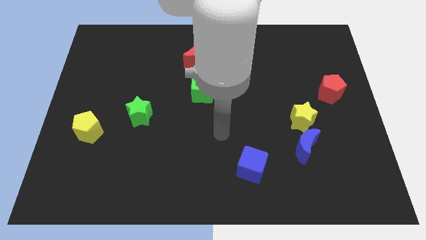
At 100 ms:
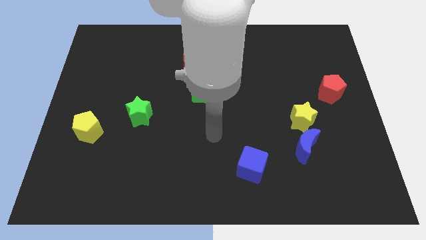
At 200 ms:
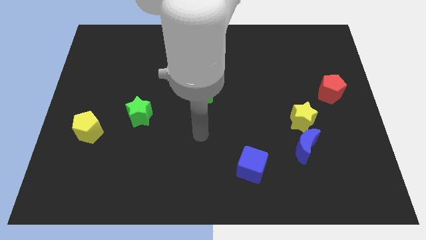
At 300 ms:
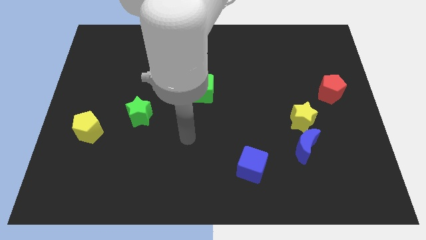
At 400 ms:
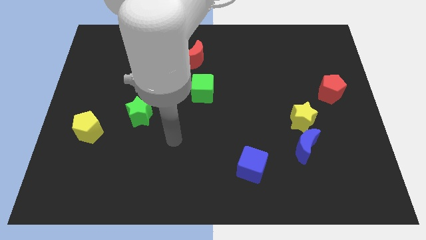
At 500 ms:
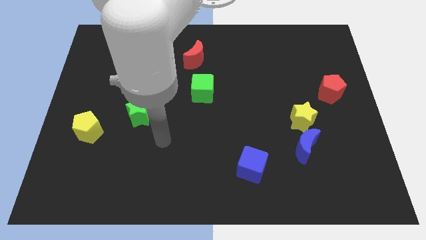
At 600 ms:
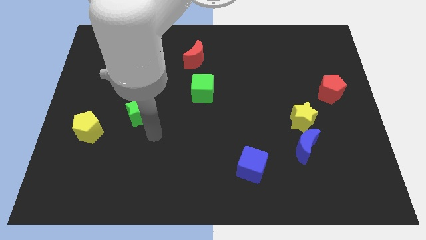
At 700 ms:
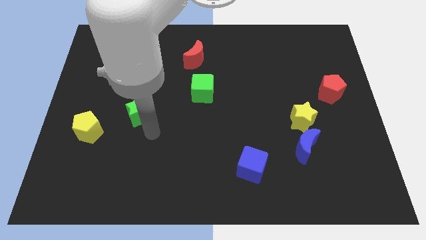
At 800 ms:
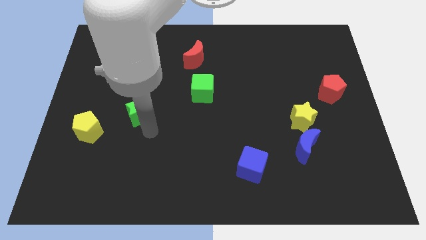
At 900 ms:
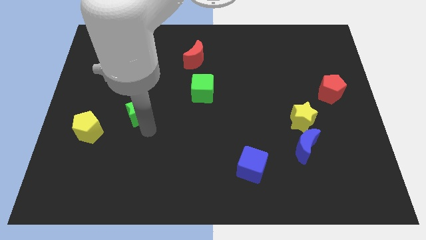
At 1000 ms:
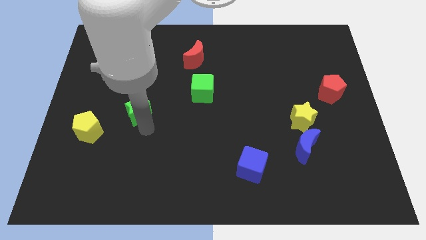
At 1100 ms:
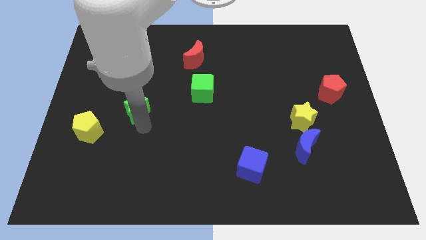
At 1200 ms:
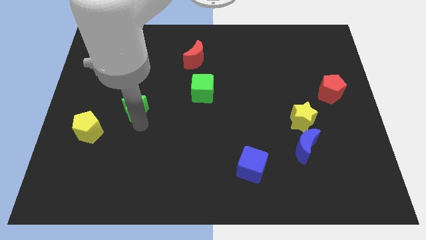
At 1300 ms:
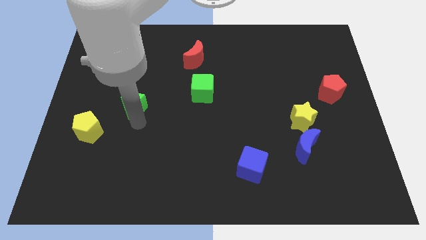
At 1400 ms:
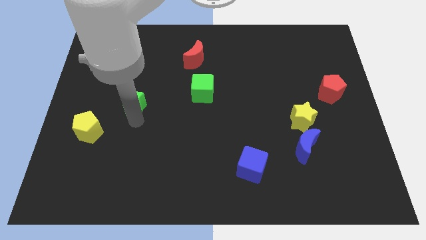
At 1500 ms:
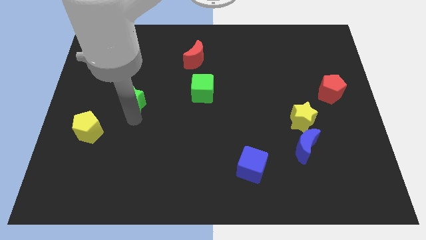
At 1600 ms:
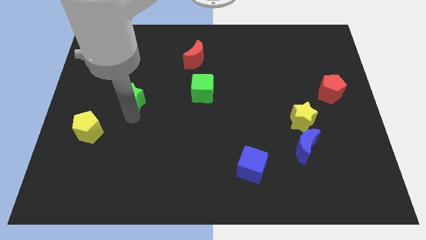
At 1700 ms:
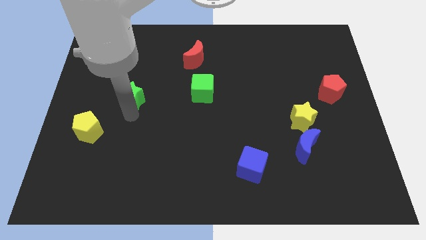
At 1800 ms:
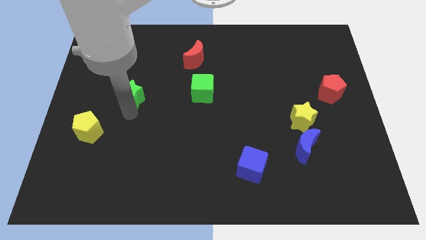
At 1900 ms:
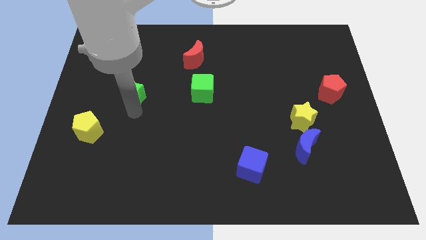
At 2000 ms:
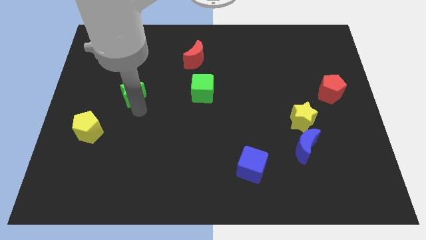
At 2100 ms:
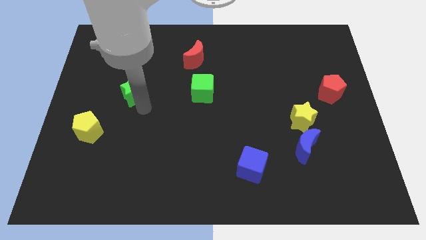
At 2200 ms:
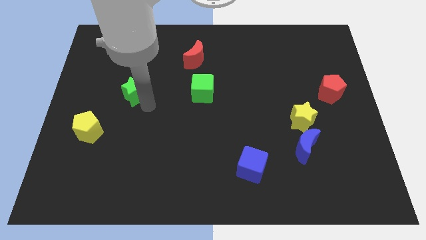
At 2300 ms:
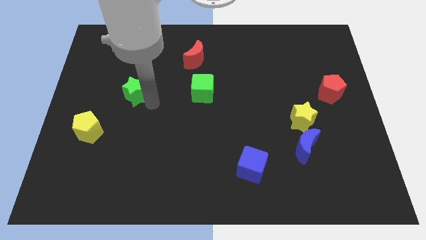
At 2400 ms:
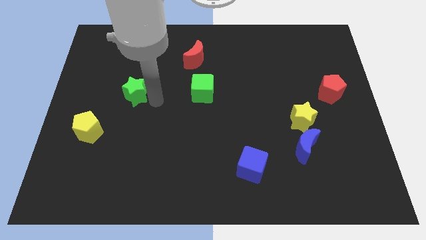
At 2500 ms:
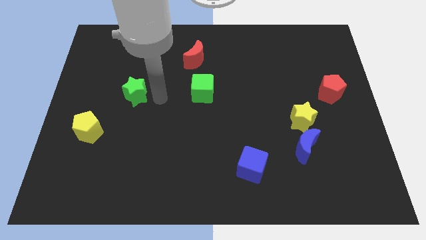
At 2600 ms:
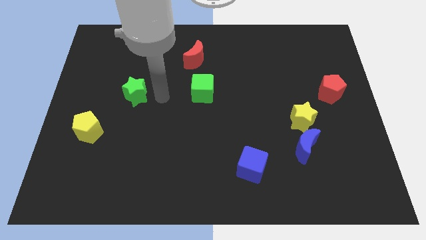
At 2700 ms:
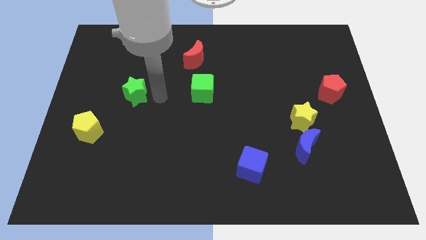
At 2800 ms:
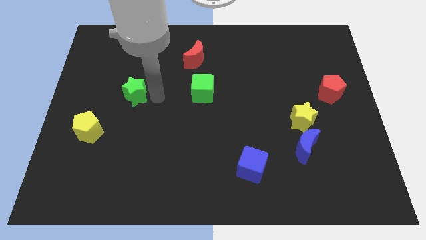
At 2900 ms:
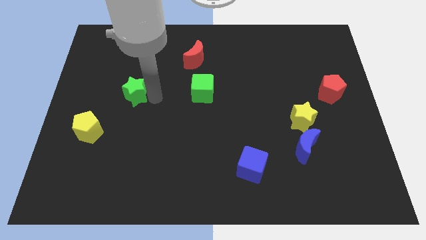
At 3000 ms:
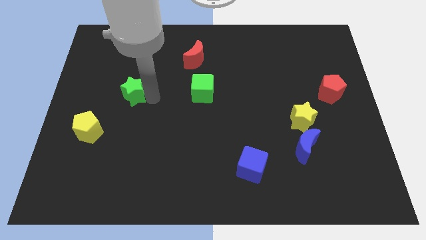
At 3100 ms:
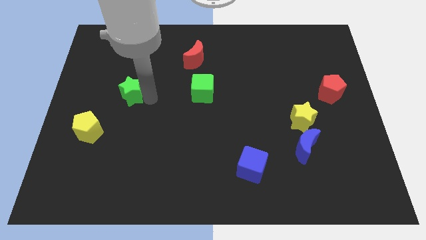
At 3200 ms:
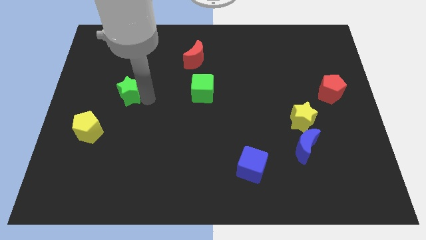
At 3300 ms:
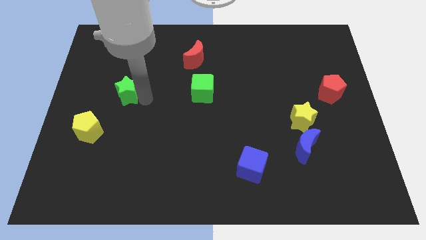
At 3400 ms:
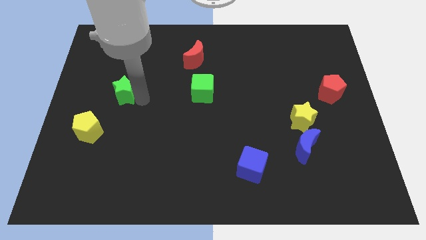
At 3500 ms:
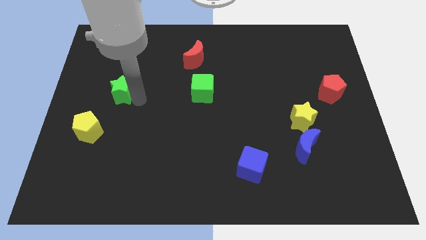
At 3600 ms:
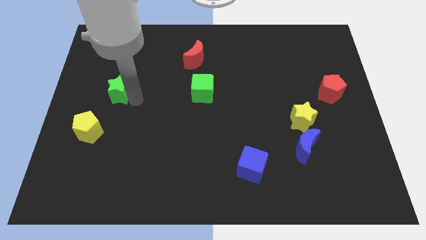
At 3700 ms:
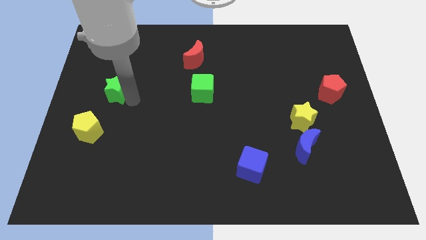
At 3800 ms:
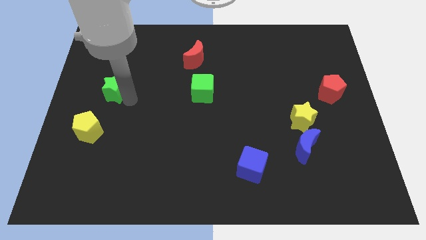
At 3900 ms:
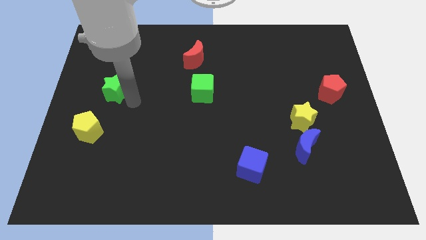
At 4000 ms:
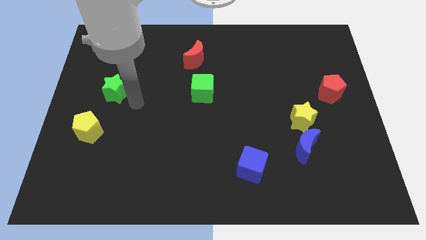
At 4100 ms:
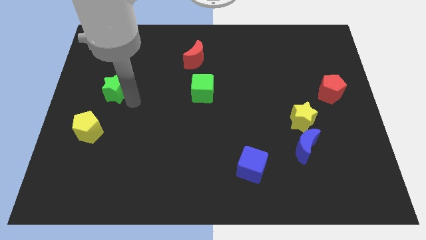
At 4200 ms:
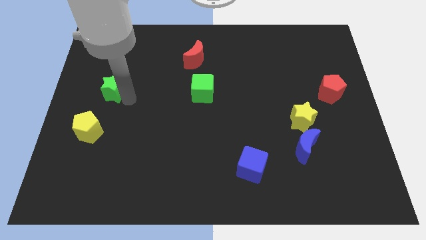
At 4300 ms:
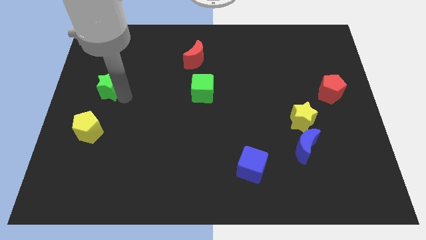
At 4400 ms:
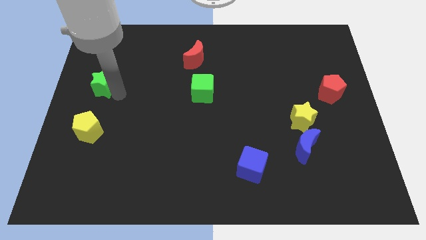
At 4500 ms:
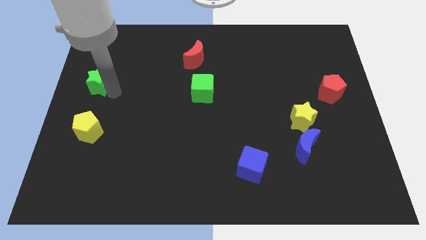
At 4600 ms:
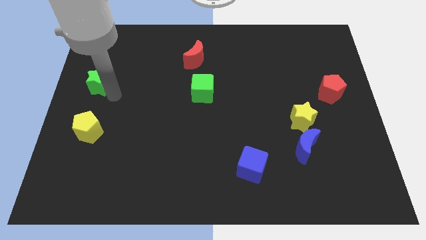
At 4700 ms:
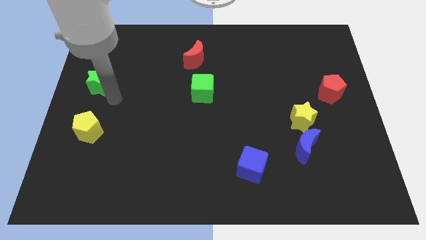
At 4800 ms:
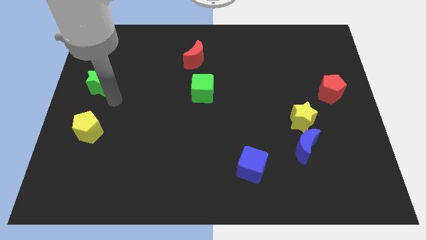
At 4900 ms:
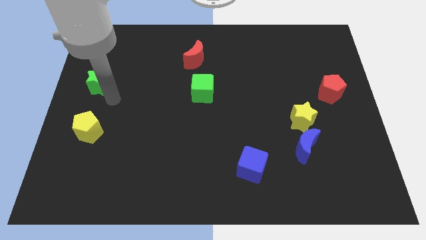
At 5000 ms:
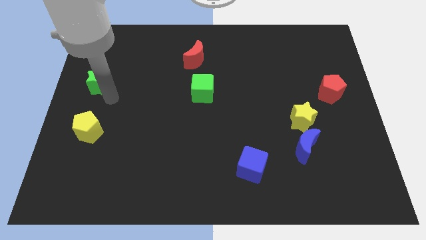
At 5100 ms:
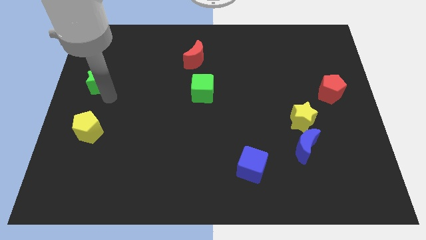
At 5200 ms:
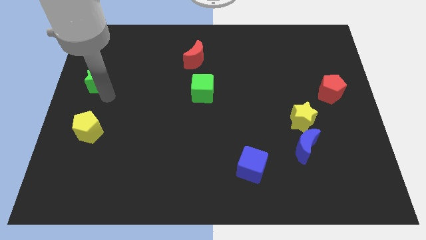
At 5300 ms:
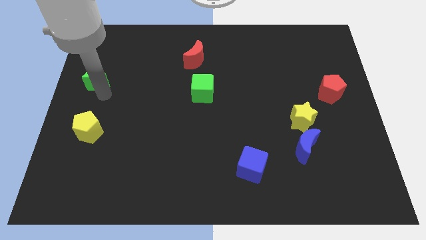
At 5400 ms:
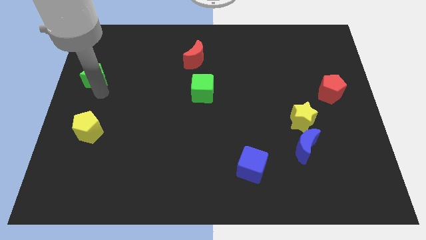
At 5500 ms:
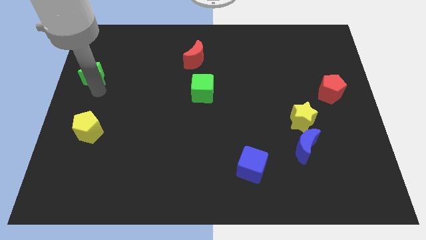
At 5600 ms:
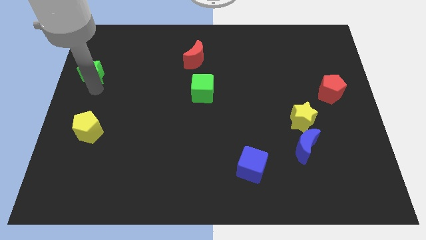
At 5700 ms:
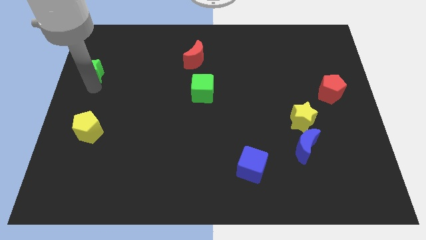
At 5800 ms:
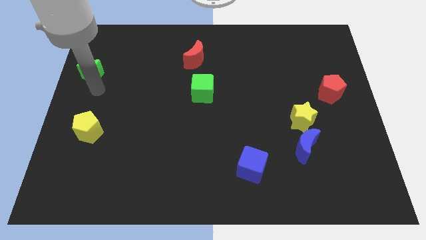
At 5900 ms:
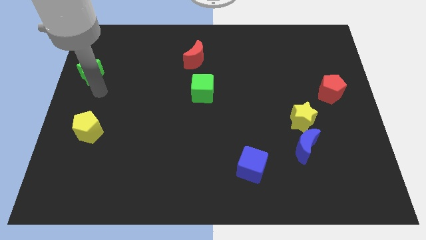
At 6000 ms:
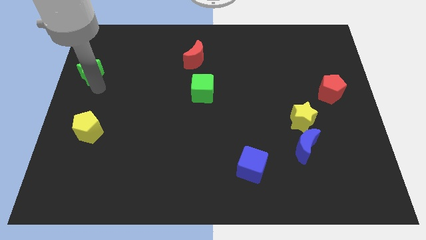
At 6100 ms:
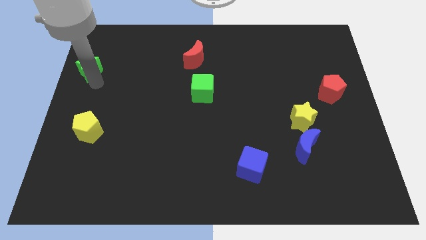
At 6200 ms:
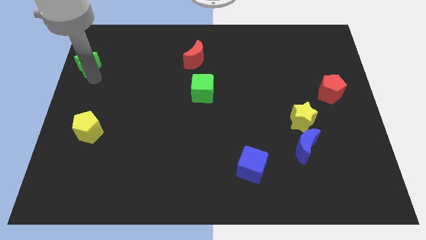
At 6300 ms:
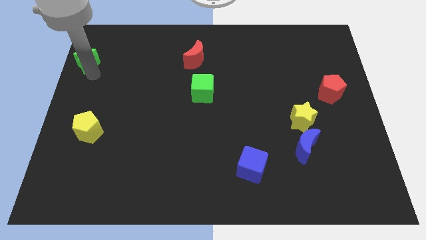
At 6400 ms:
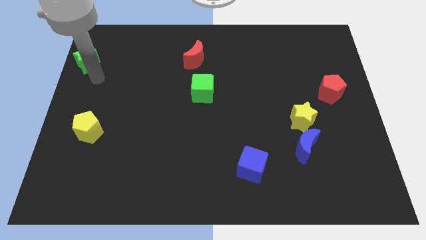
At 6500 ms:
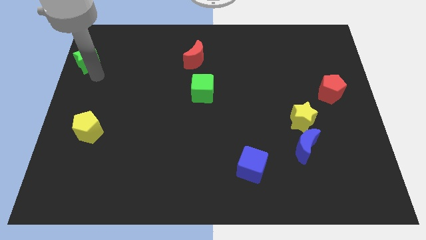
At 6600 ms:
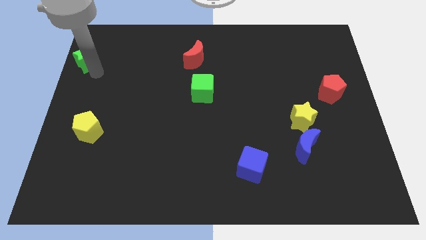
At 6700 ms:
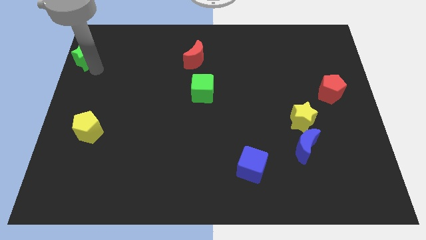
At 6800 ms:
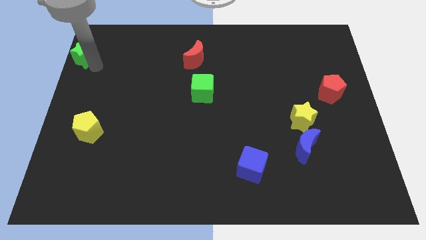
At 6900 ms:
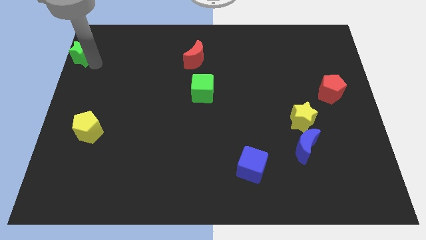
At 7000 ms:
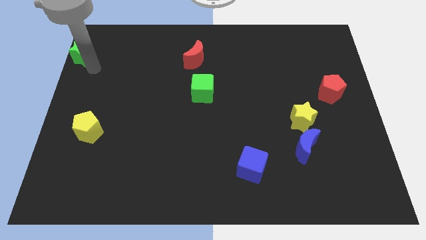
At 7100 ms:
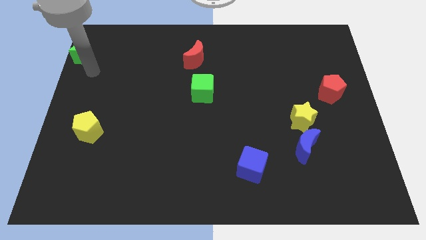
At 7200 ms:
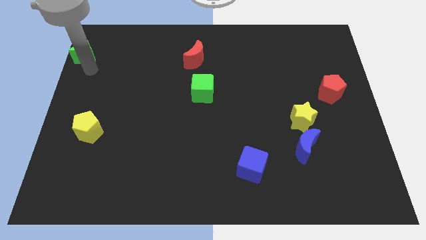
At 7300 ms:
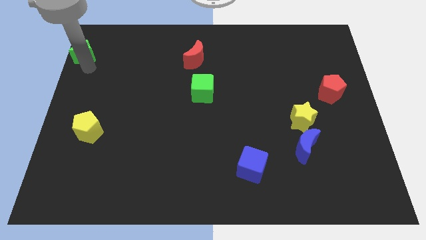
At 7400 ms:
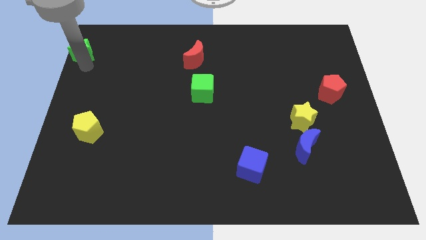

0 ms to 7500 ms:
move the green star to the top left corner
